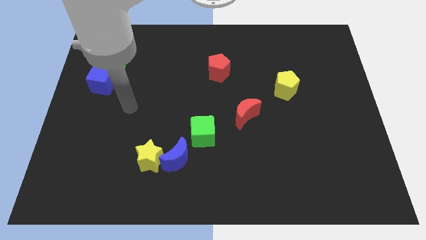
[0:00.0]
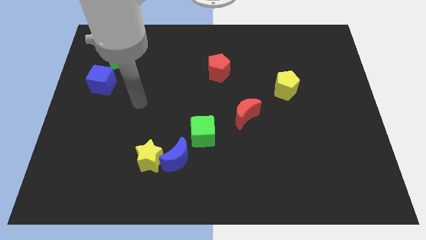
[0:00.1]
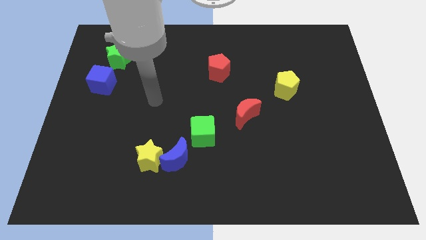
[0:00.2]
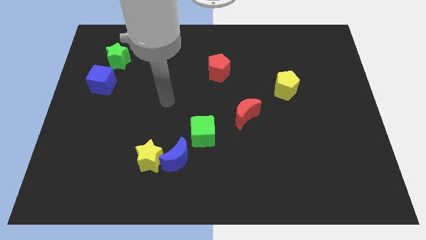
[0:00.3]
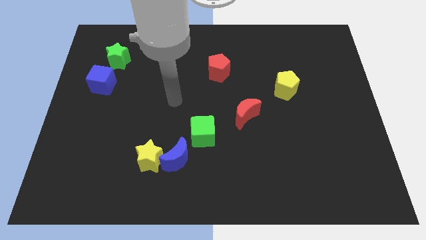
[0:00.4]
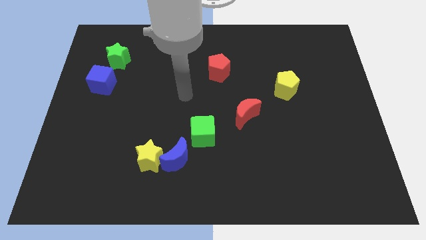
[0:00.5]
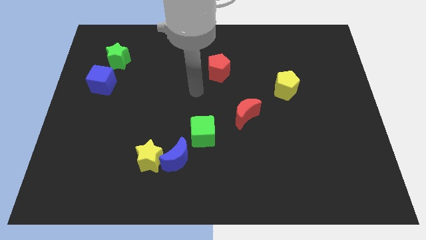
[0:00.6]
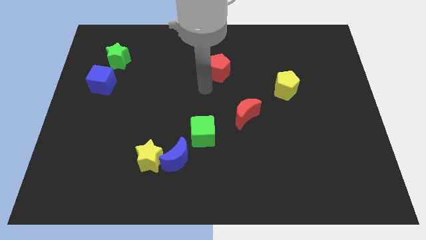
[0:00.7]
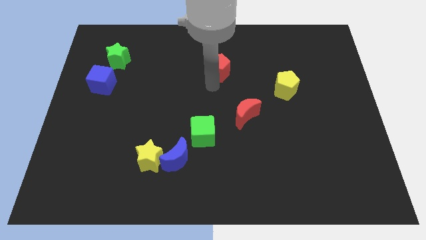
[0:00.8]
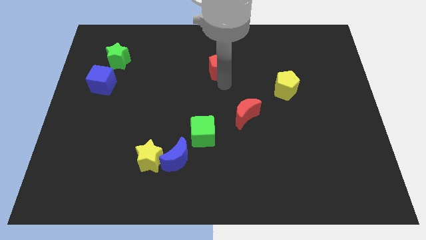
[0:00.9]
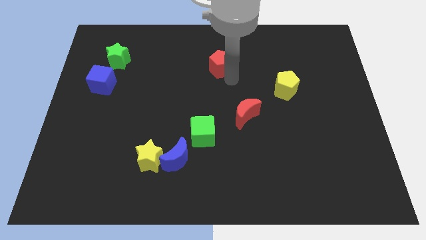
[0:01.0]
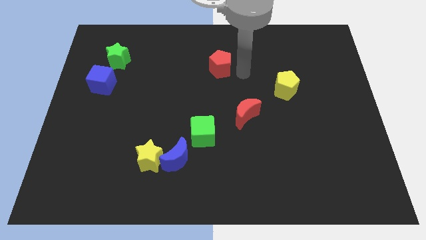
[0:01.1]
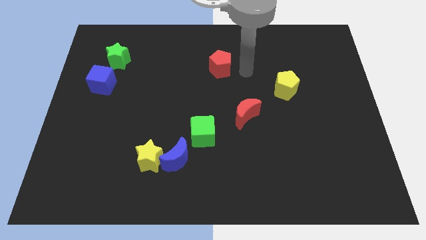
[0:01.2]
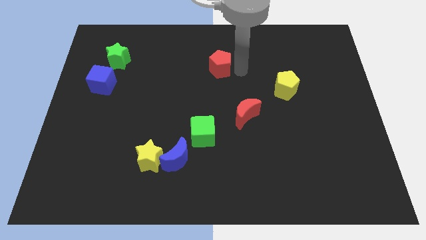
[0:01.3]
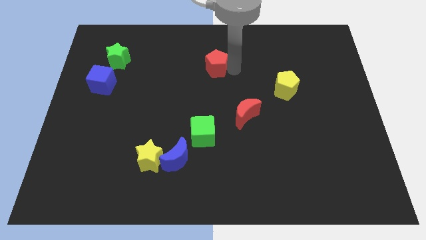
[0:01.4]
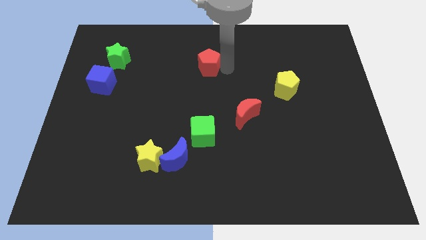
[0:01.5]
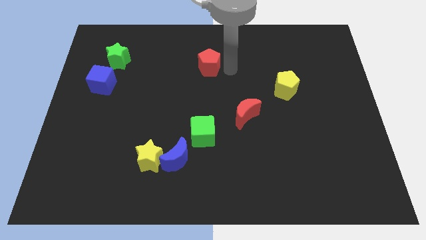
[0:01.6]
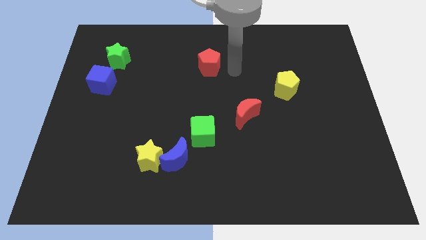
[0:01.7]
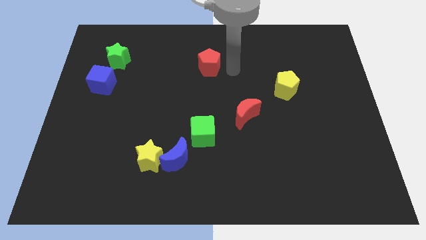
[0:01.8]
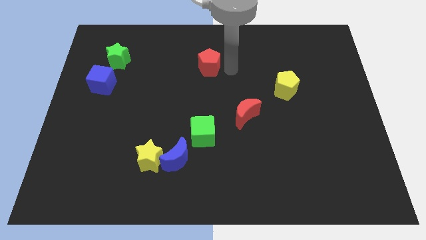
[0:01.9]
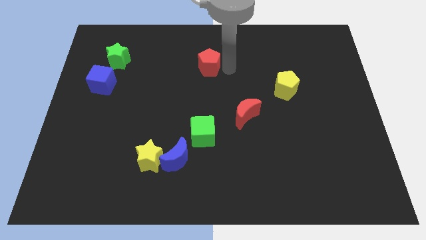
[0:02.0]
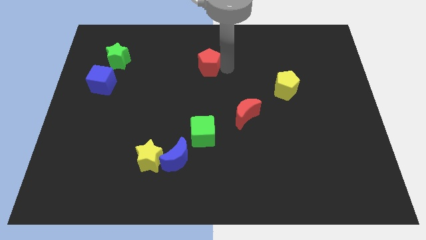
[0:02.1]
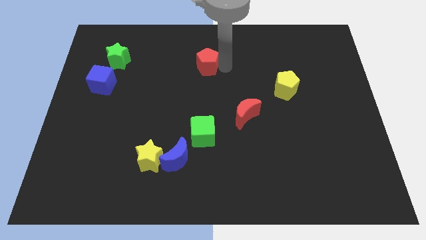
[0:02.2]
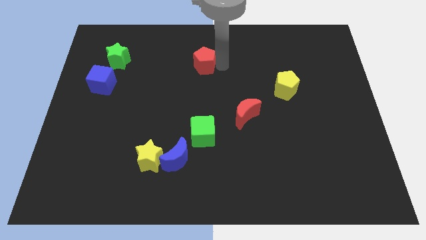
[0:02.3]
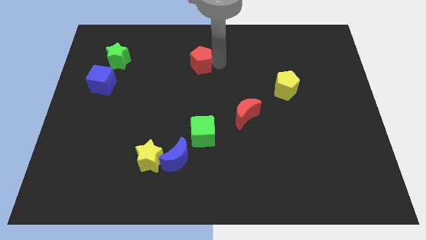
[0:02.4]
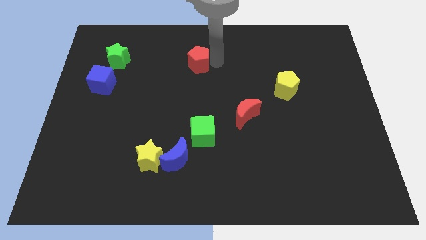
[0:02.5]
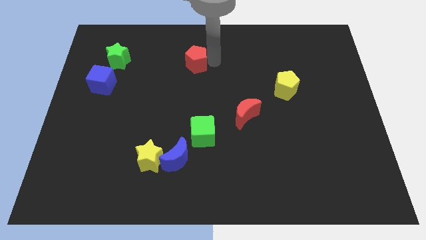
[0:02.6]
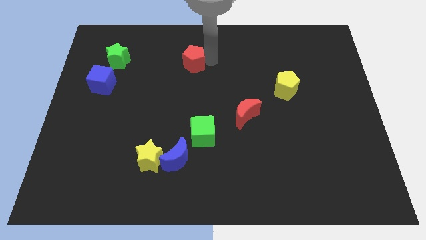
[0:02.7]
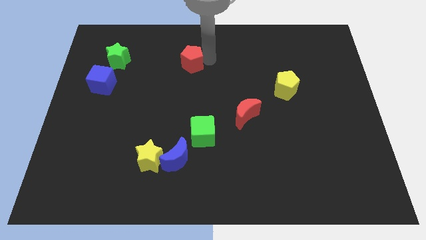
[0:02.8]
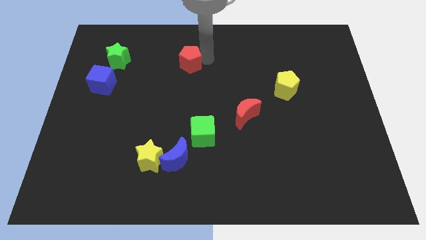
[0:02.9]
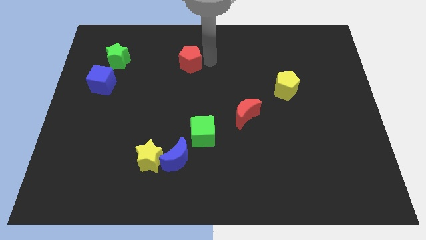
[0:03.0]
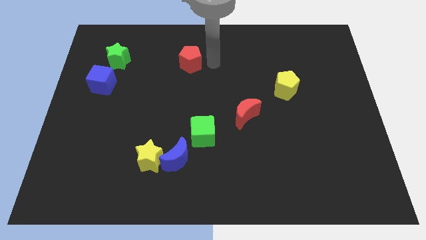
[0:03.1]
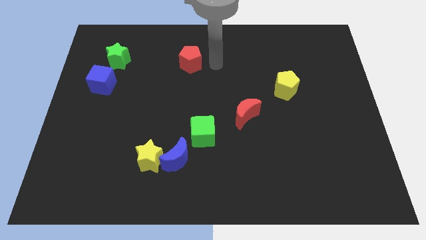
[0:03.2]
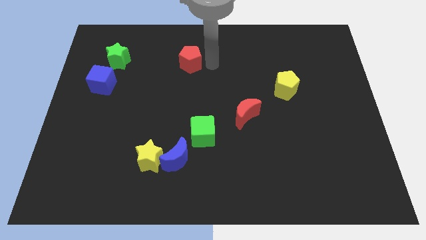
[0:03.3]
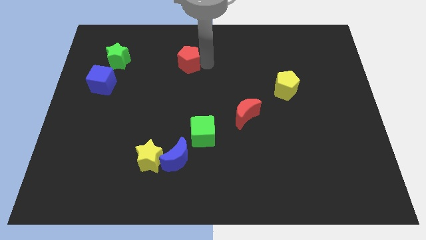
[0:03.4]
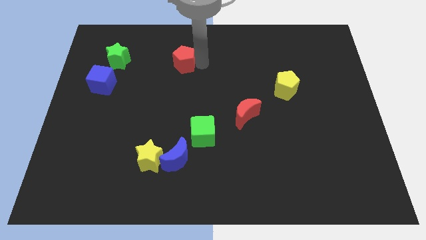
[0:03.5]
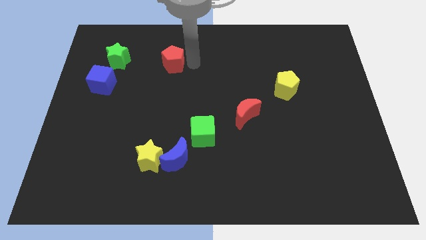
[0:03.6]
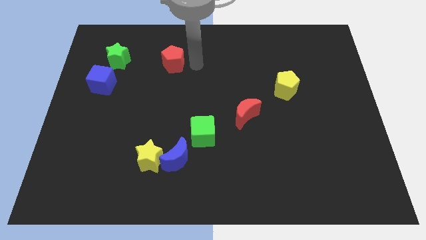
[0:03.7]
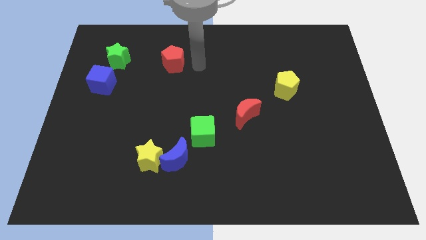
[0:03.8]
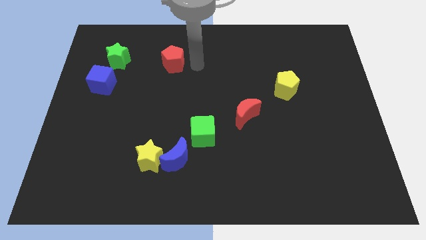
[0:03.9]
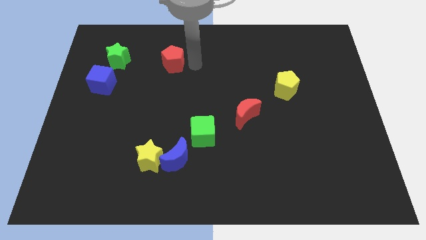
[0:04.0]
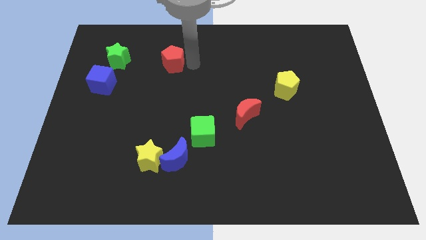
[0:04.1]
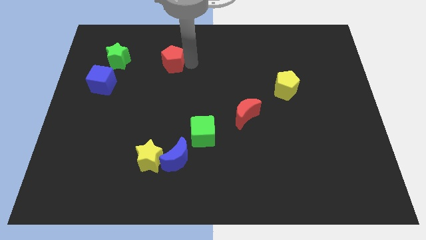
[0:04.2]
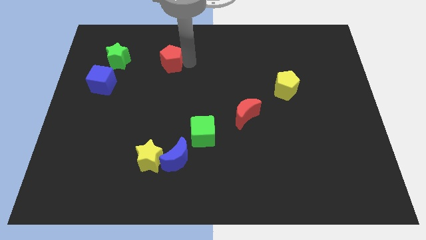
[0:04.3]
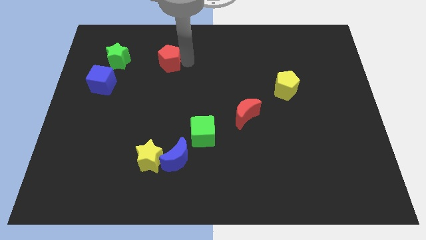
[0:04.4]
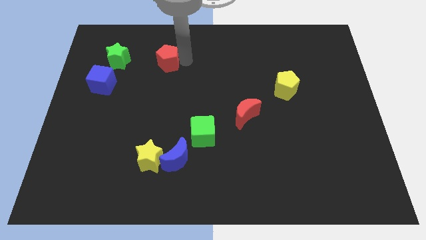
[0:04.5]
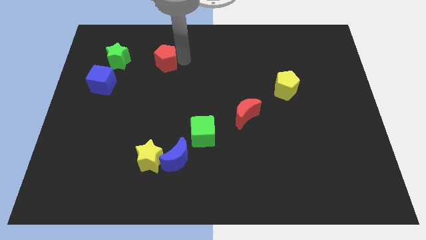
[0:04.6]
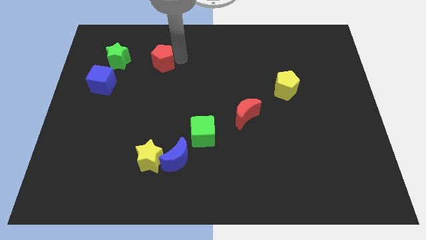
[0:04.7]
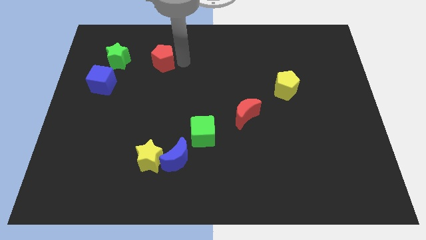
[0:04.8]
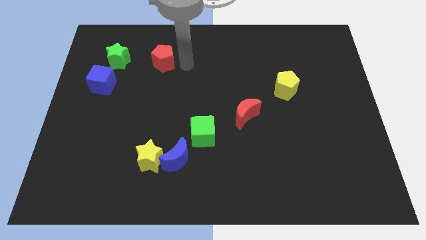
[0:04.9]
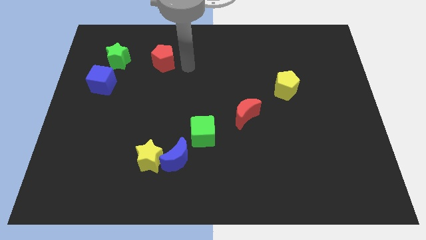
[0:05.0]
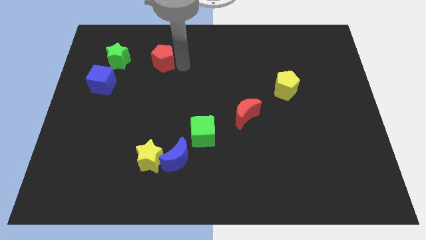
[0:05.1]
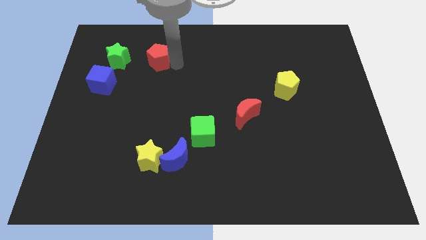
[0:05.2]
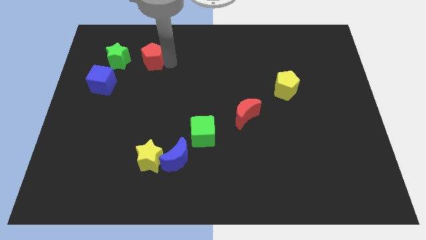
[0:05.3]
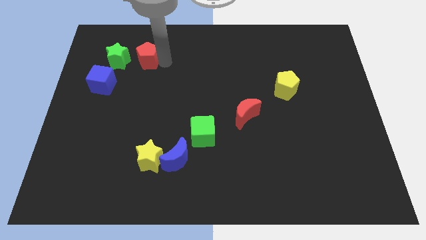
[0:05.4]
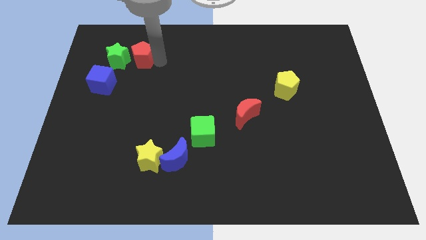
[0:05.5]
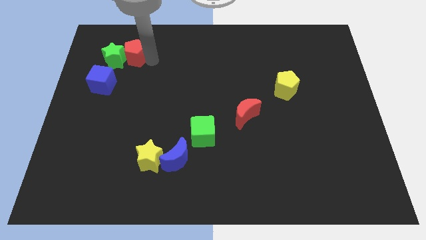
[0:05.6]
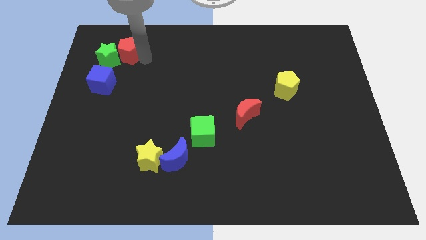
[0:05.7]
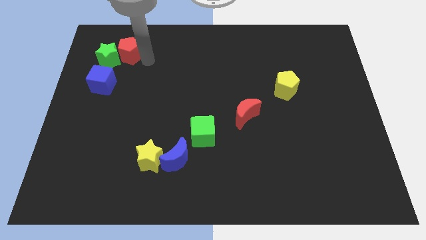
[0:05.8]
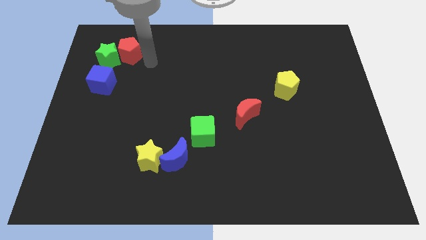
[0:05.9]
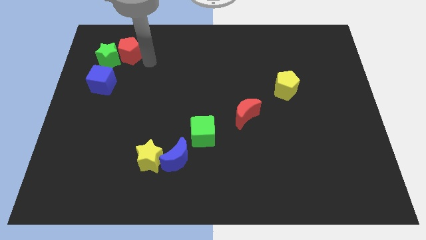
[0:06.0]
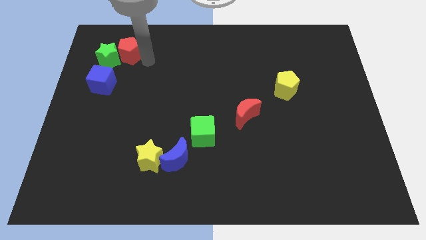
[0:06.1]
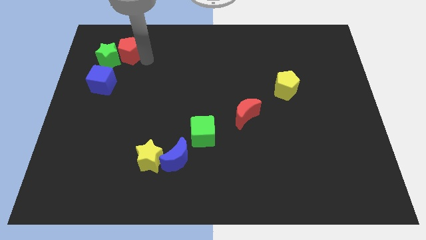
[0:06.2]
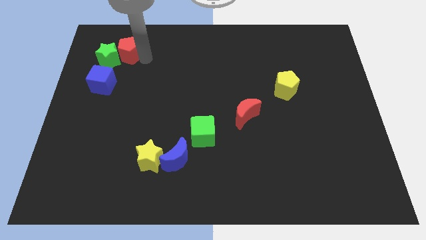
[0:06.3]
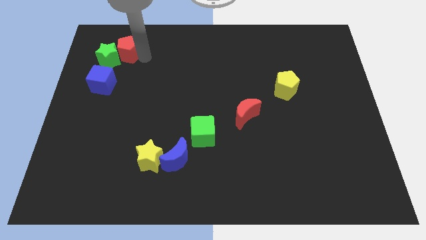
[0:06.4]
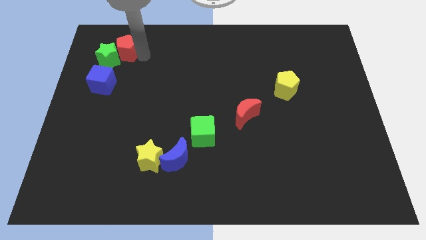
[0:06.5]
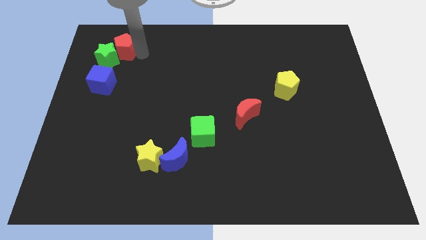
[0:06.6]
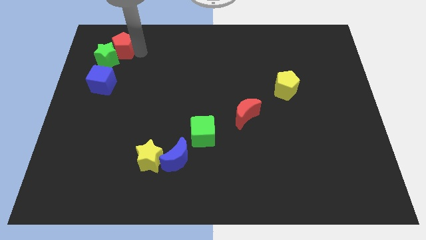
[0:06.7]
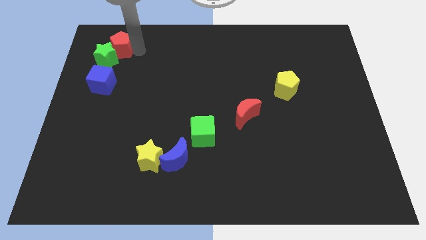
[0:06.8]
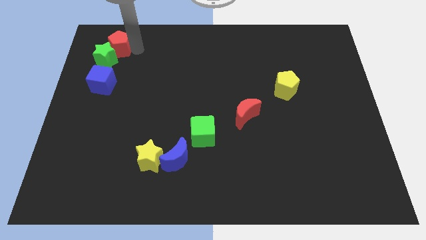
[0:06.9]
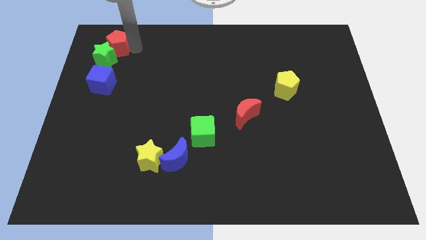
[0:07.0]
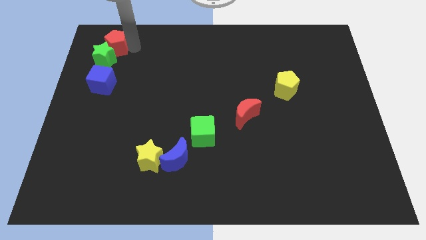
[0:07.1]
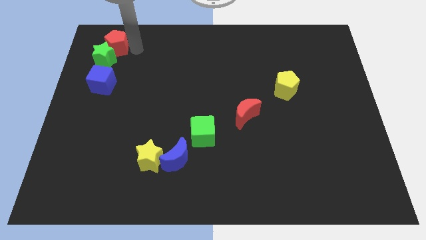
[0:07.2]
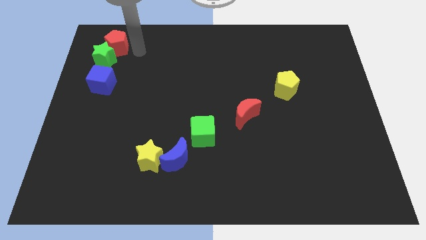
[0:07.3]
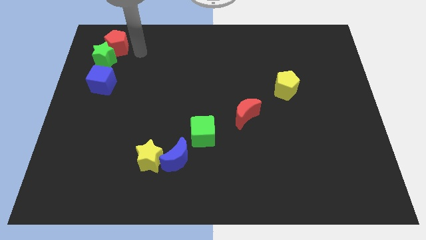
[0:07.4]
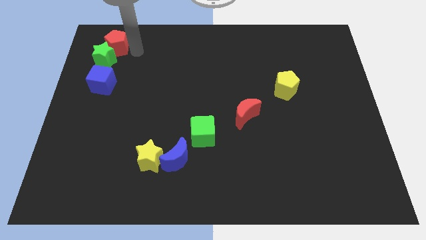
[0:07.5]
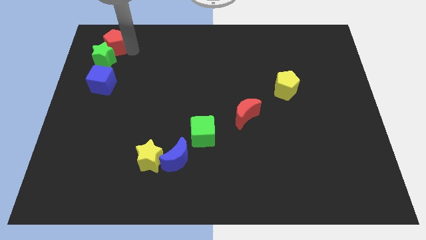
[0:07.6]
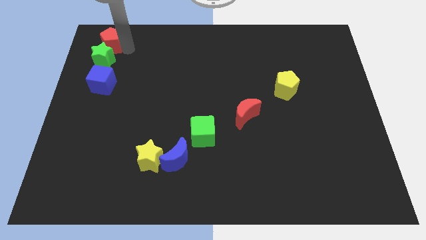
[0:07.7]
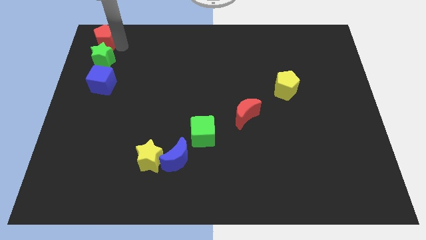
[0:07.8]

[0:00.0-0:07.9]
put the red pentagon to the top left of the board
